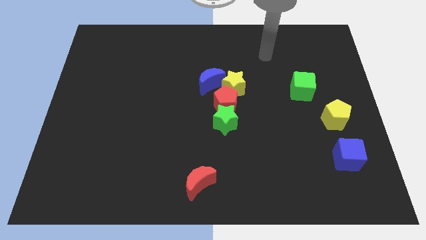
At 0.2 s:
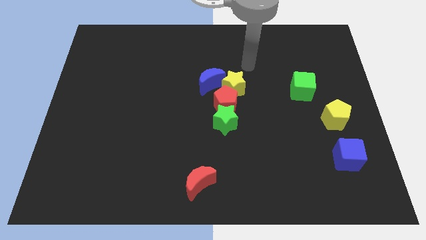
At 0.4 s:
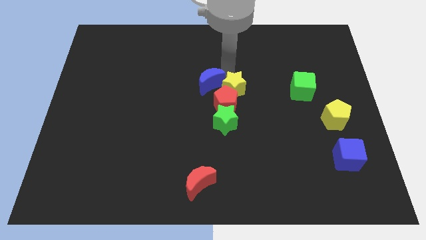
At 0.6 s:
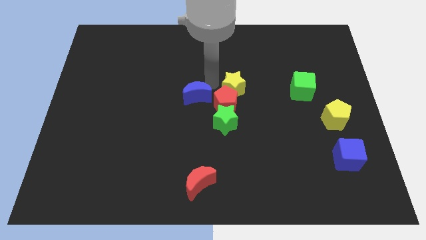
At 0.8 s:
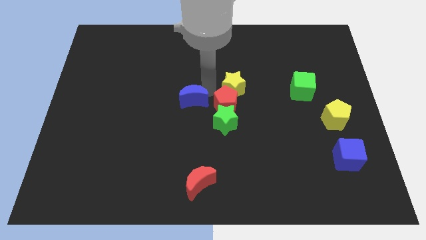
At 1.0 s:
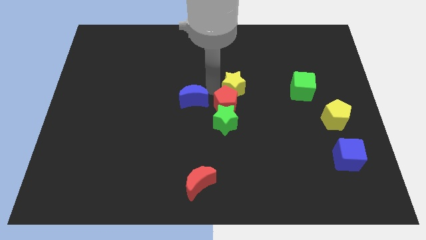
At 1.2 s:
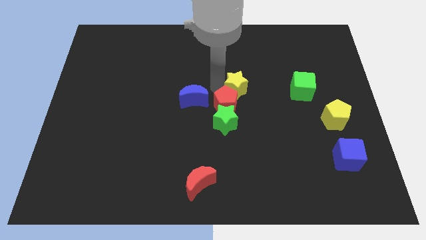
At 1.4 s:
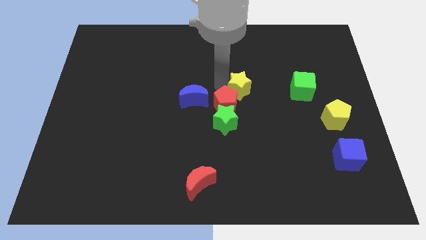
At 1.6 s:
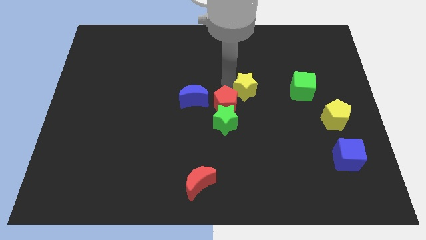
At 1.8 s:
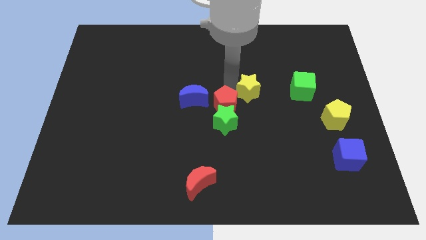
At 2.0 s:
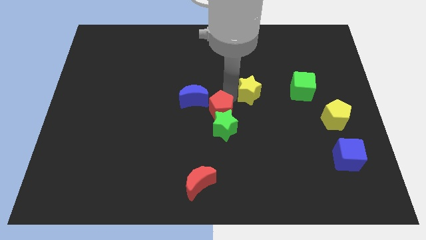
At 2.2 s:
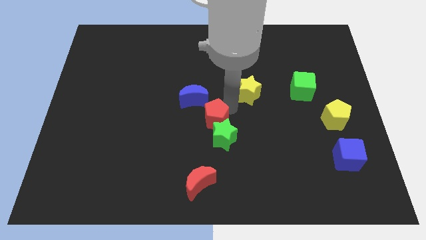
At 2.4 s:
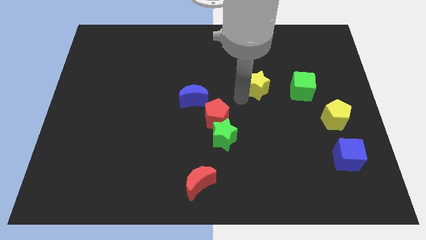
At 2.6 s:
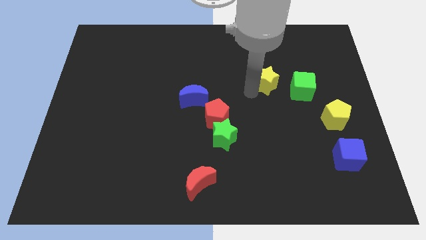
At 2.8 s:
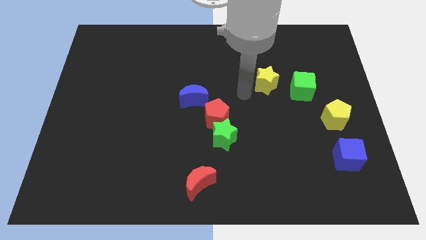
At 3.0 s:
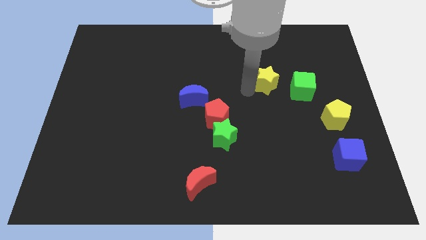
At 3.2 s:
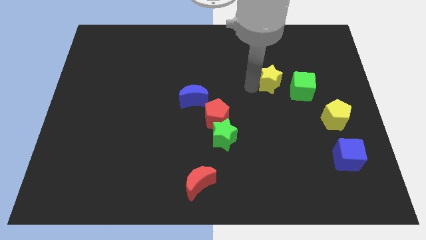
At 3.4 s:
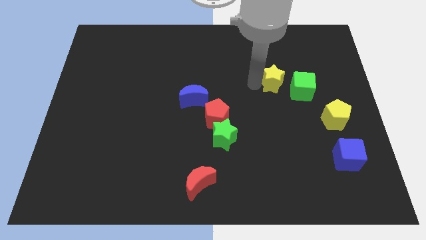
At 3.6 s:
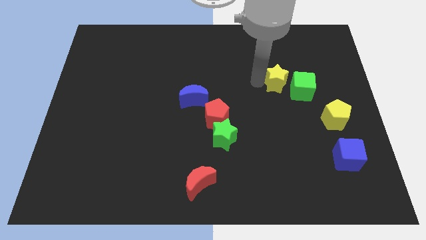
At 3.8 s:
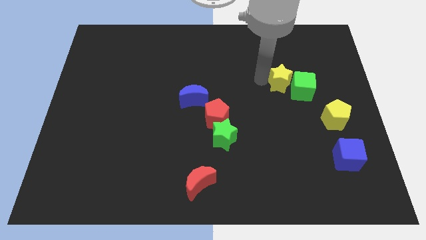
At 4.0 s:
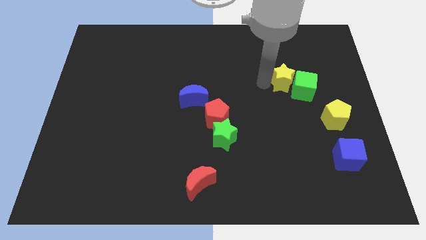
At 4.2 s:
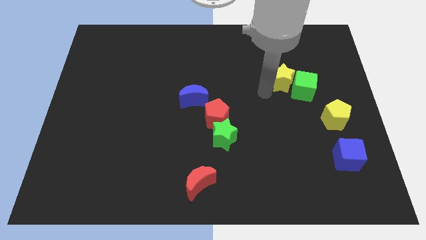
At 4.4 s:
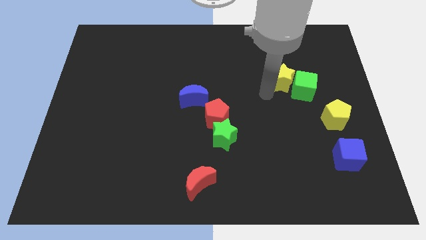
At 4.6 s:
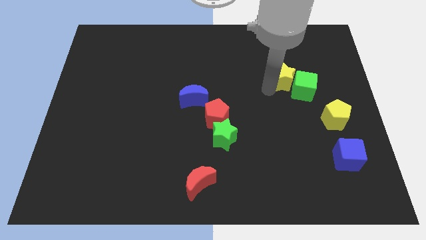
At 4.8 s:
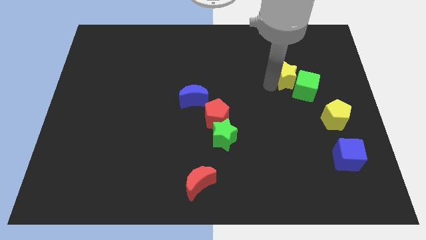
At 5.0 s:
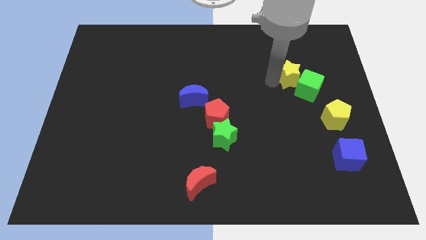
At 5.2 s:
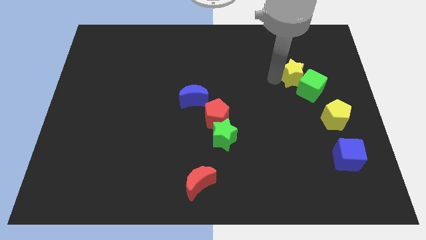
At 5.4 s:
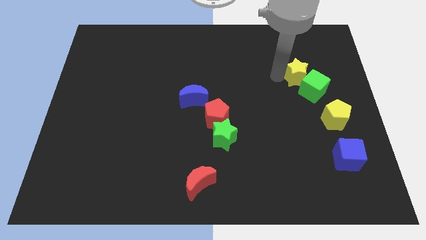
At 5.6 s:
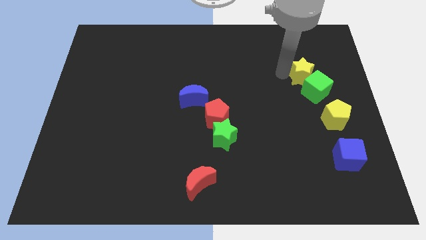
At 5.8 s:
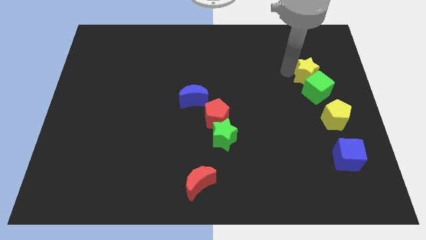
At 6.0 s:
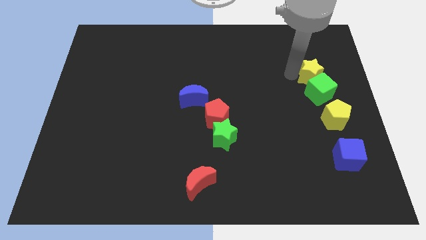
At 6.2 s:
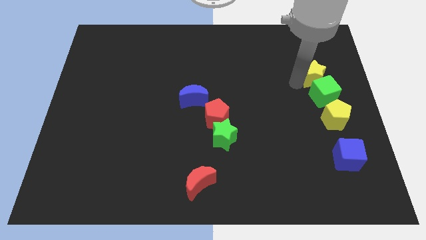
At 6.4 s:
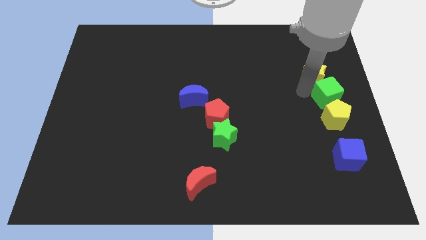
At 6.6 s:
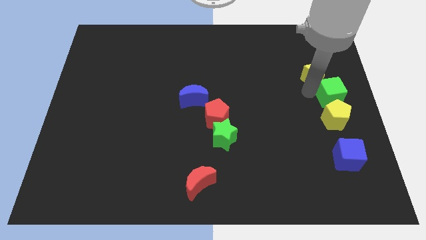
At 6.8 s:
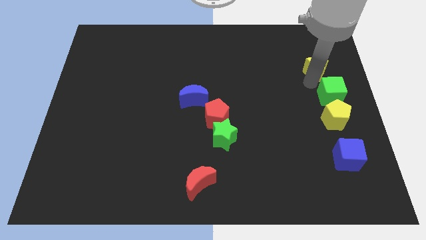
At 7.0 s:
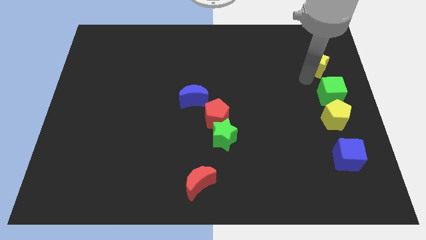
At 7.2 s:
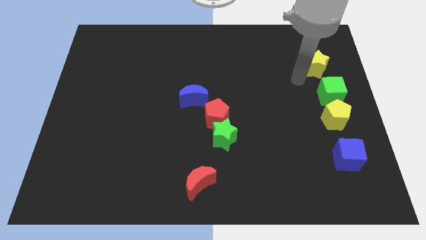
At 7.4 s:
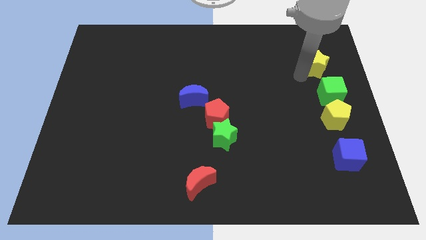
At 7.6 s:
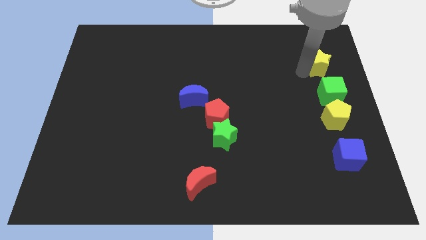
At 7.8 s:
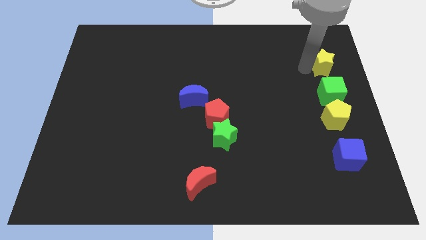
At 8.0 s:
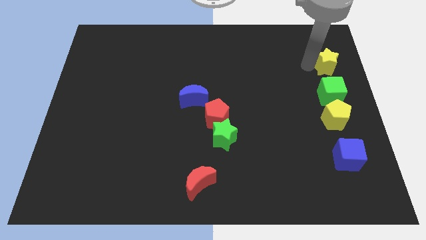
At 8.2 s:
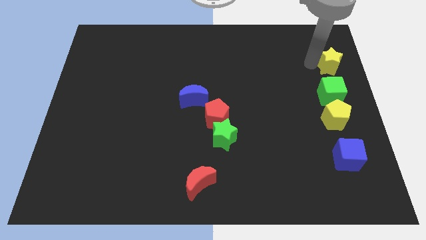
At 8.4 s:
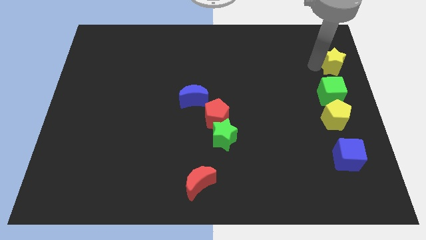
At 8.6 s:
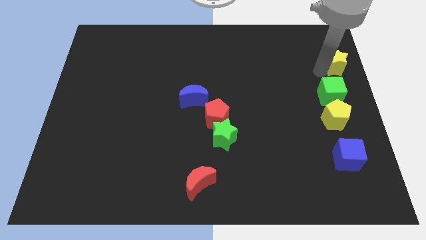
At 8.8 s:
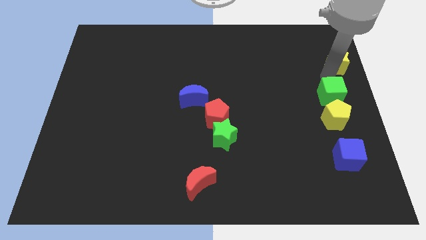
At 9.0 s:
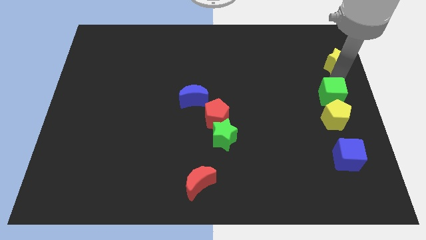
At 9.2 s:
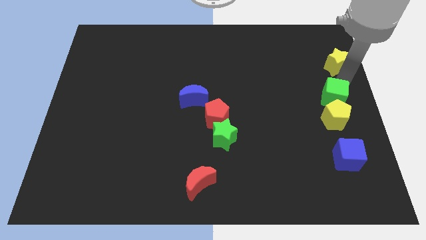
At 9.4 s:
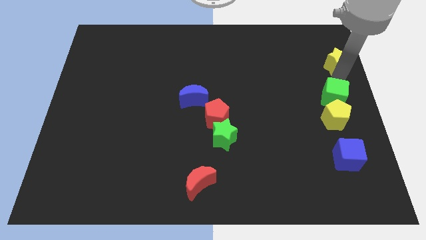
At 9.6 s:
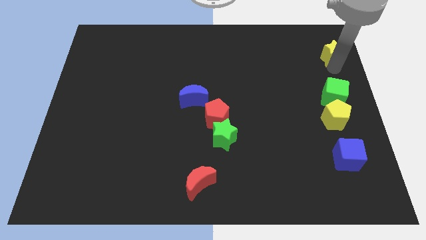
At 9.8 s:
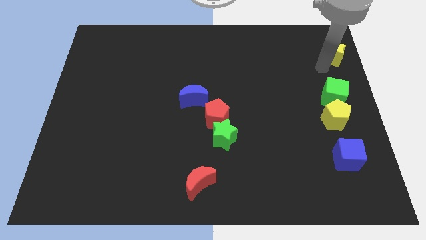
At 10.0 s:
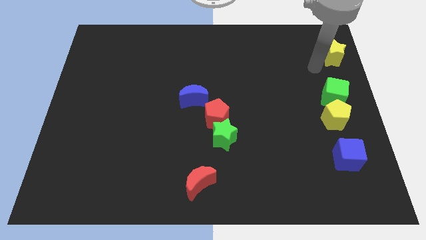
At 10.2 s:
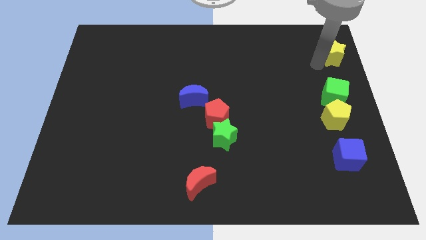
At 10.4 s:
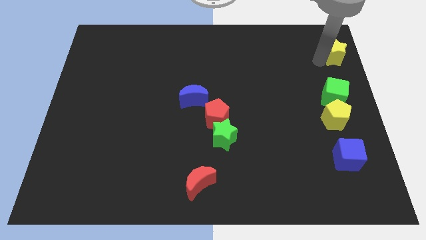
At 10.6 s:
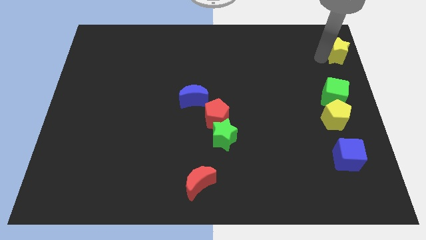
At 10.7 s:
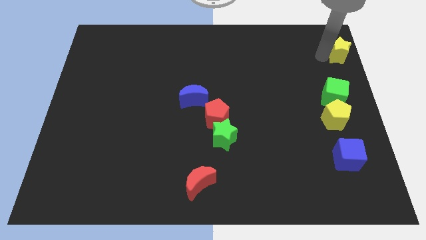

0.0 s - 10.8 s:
slide the yellow star to the top right corner

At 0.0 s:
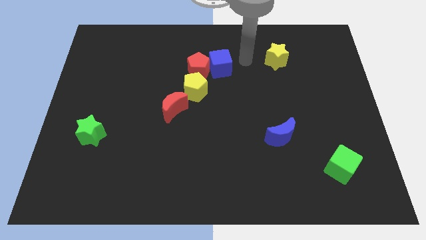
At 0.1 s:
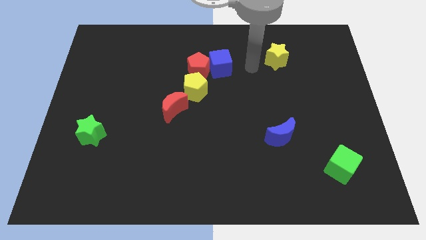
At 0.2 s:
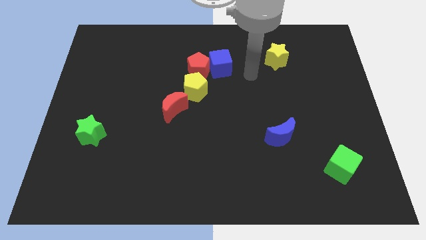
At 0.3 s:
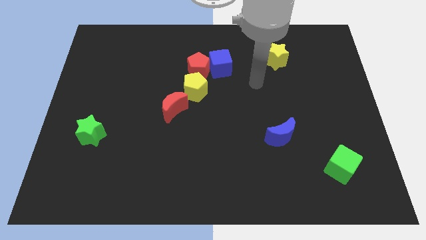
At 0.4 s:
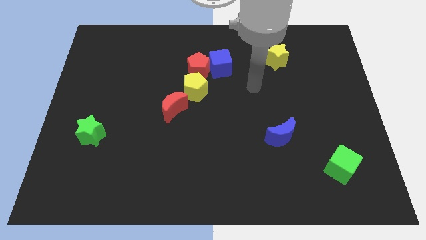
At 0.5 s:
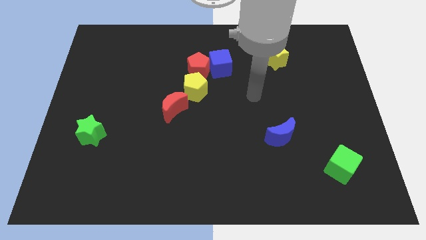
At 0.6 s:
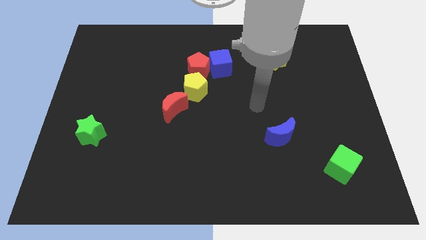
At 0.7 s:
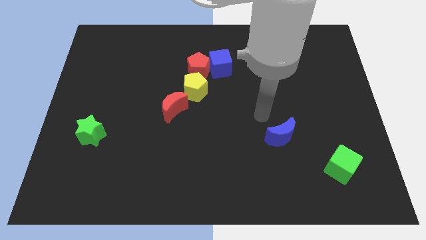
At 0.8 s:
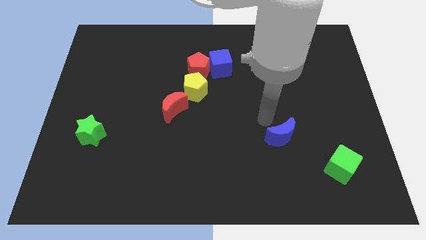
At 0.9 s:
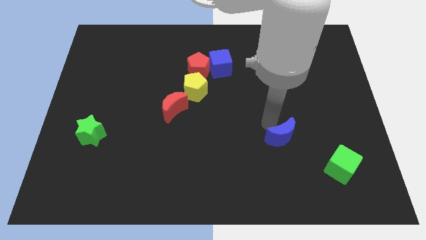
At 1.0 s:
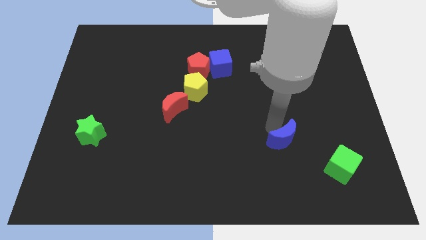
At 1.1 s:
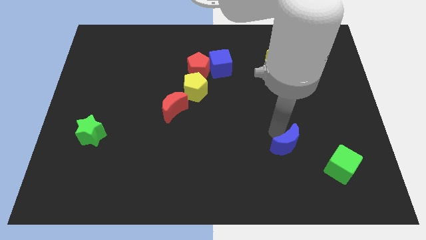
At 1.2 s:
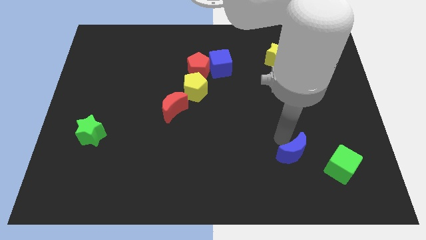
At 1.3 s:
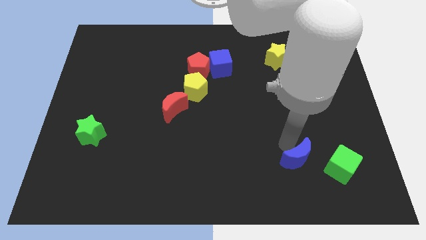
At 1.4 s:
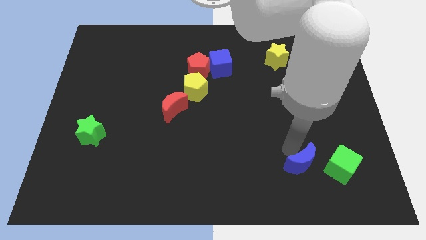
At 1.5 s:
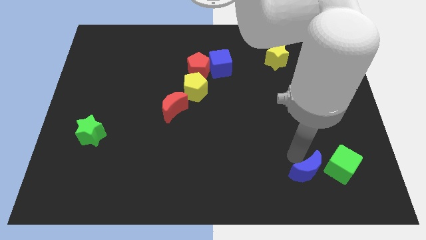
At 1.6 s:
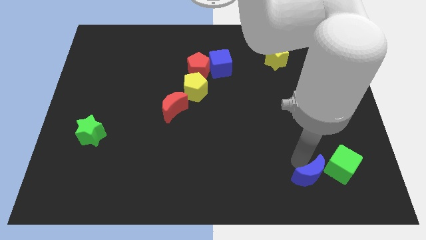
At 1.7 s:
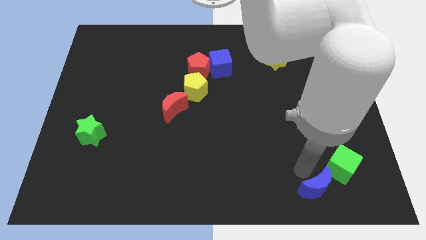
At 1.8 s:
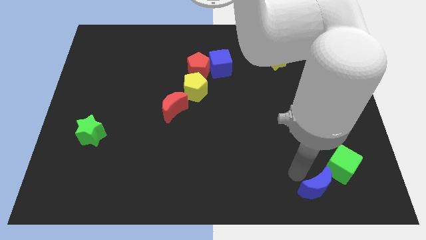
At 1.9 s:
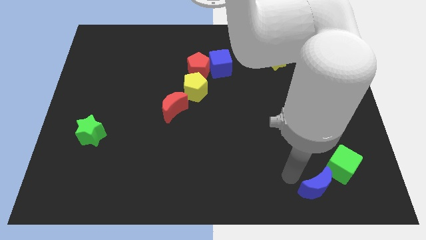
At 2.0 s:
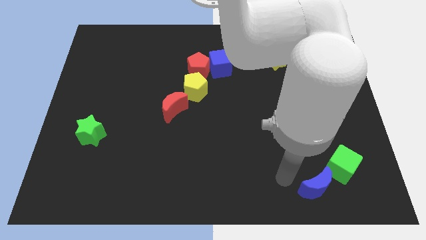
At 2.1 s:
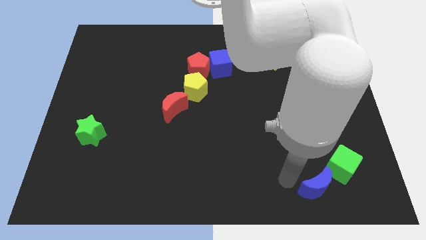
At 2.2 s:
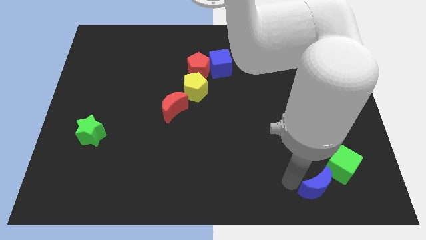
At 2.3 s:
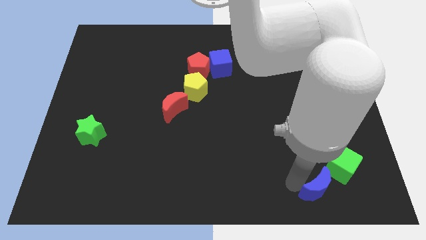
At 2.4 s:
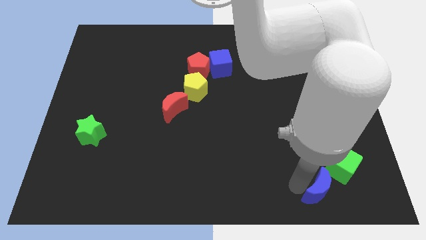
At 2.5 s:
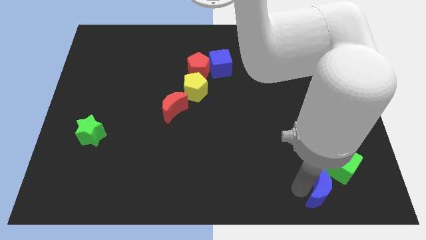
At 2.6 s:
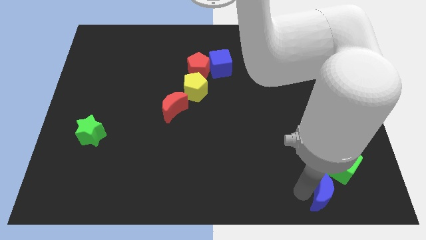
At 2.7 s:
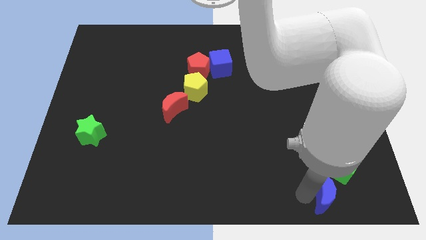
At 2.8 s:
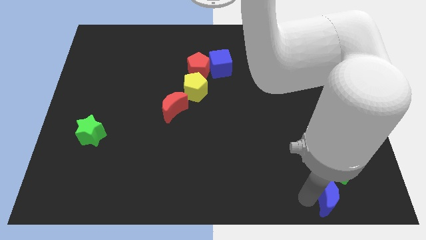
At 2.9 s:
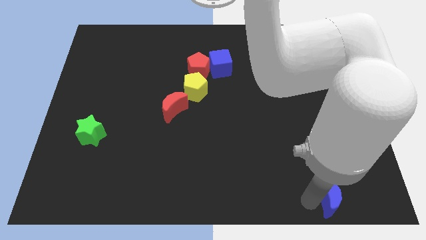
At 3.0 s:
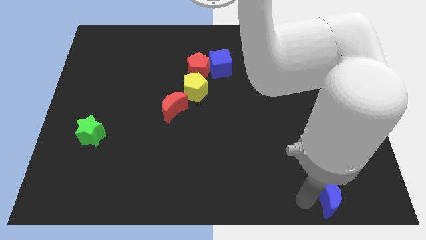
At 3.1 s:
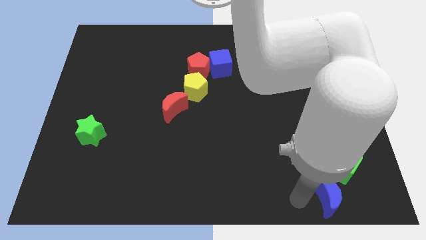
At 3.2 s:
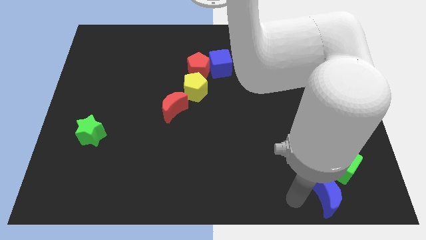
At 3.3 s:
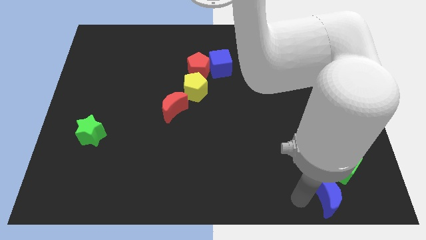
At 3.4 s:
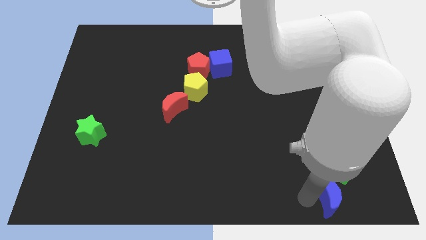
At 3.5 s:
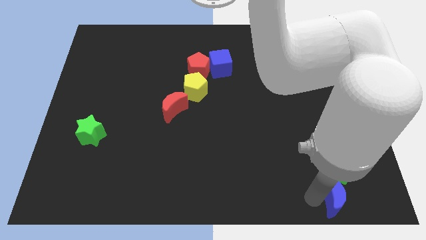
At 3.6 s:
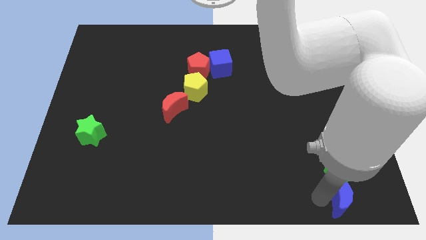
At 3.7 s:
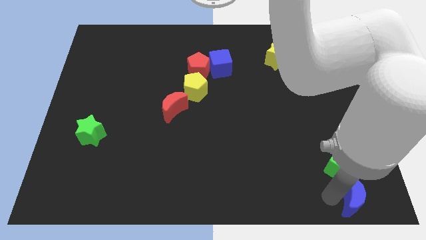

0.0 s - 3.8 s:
slide the blue moon to the bottom right
